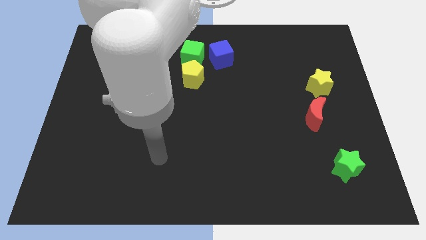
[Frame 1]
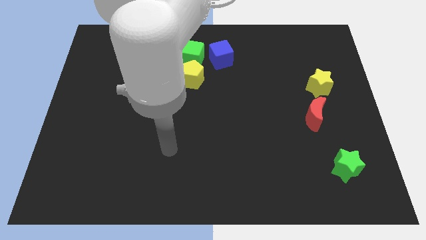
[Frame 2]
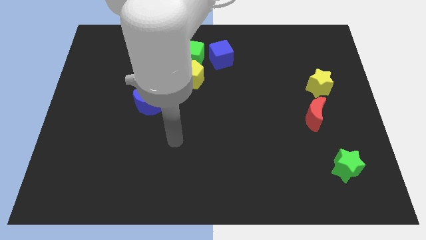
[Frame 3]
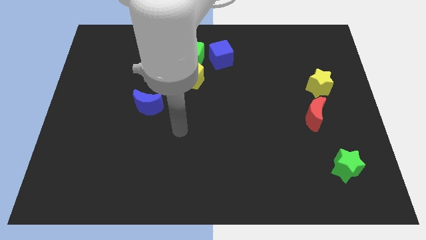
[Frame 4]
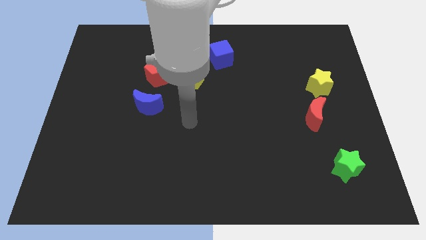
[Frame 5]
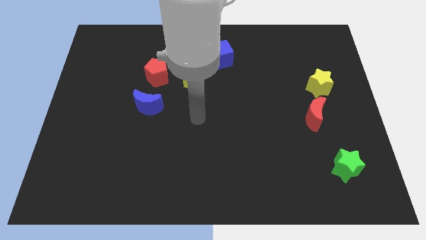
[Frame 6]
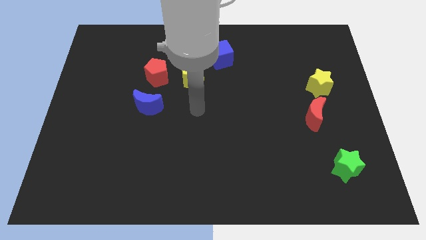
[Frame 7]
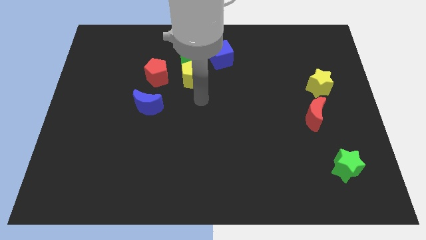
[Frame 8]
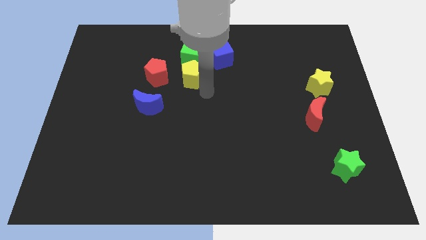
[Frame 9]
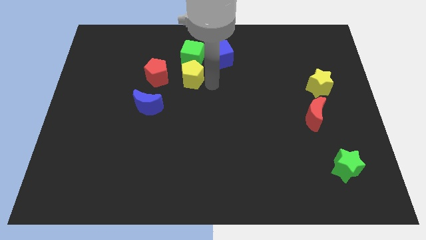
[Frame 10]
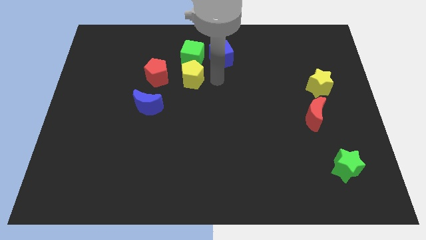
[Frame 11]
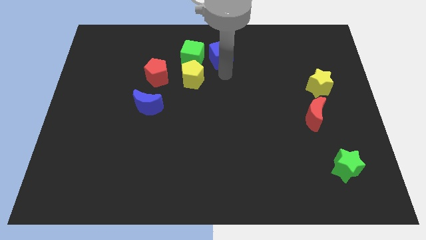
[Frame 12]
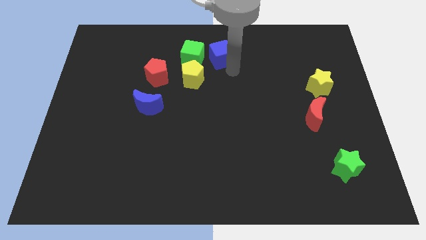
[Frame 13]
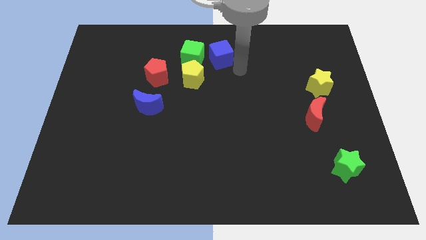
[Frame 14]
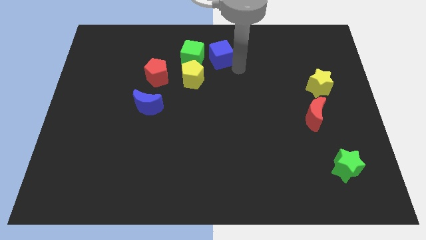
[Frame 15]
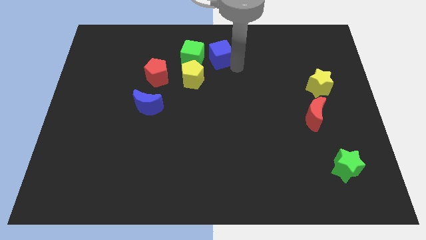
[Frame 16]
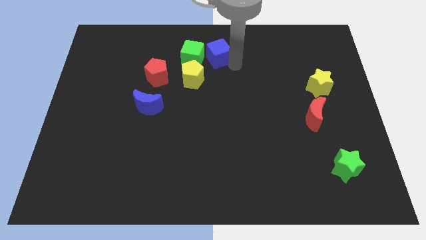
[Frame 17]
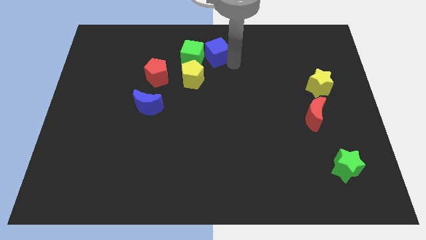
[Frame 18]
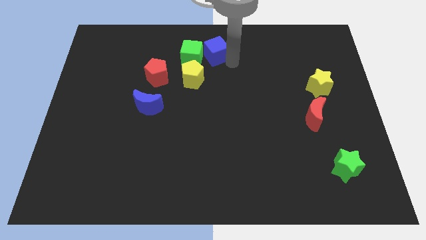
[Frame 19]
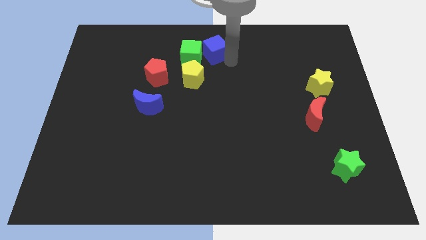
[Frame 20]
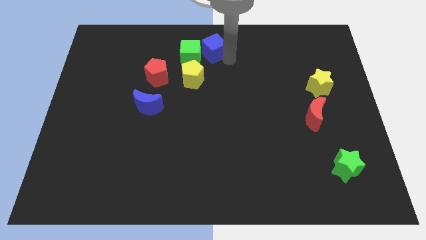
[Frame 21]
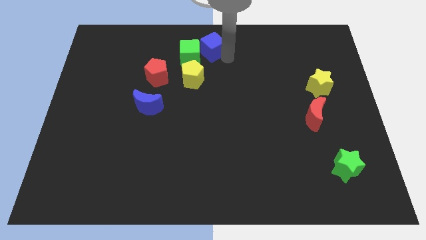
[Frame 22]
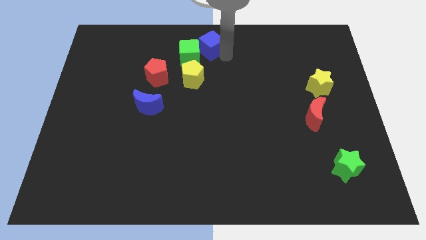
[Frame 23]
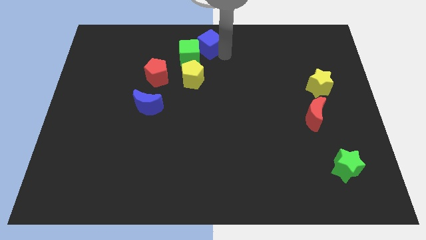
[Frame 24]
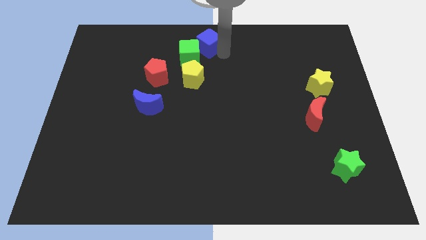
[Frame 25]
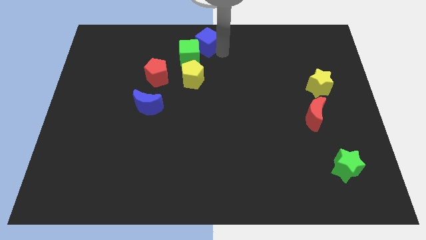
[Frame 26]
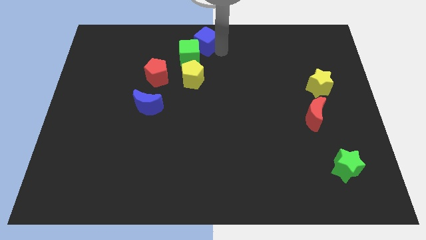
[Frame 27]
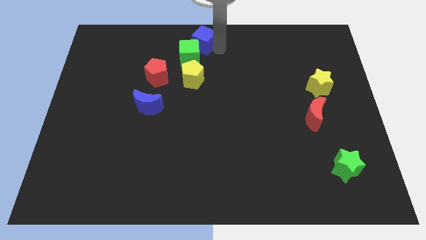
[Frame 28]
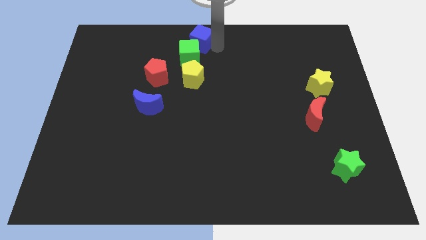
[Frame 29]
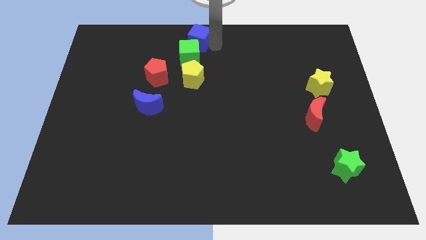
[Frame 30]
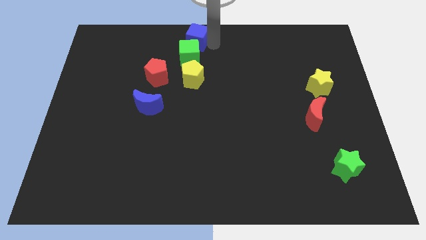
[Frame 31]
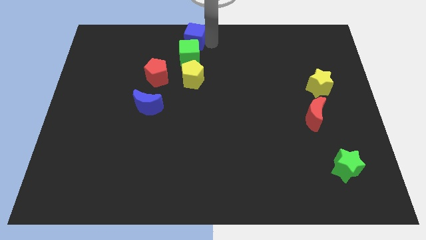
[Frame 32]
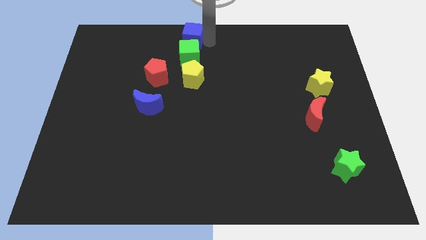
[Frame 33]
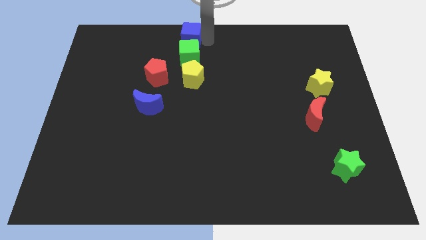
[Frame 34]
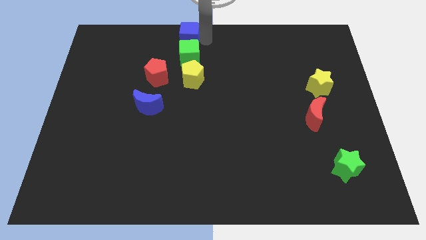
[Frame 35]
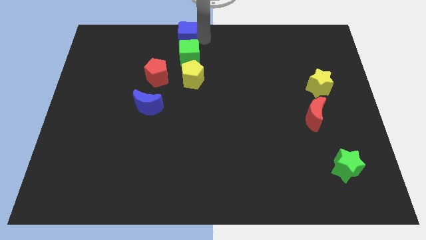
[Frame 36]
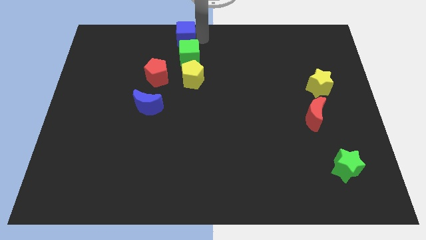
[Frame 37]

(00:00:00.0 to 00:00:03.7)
slightly slide the blue cube to the left

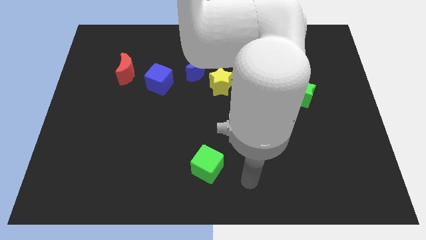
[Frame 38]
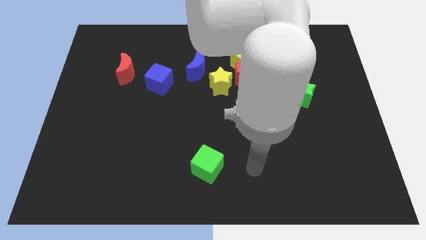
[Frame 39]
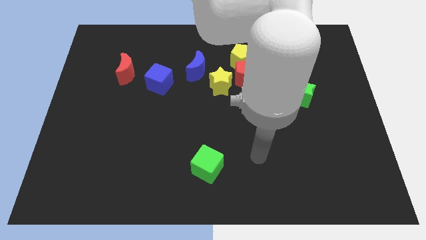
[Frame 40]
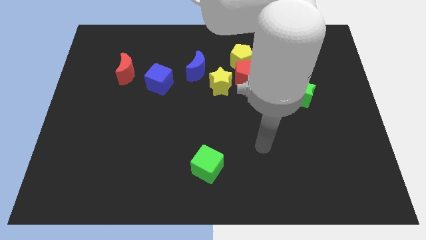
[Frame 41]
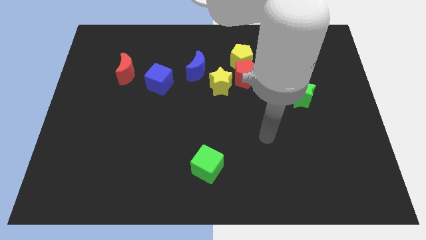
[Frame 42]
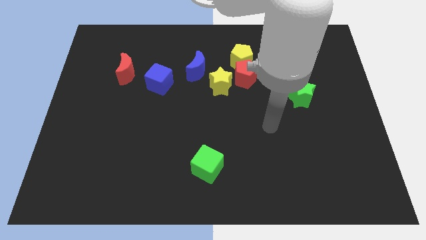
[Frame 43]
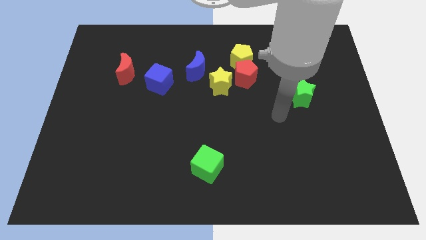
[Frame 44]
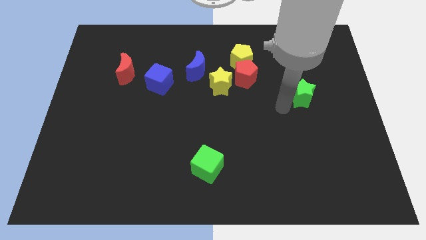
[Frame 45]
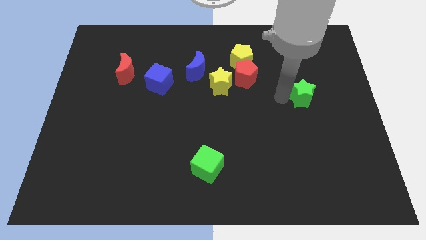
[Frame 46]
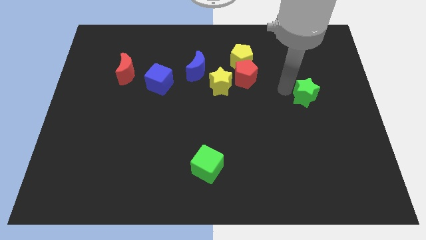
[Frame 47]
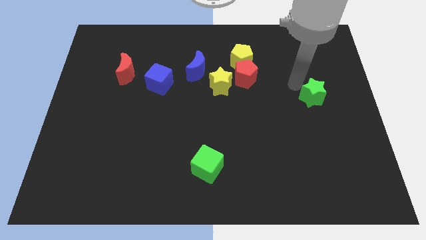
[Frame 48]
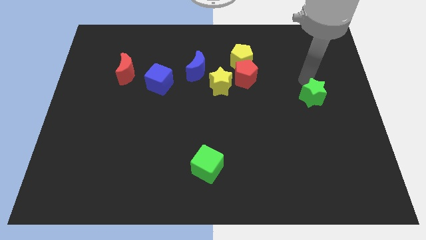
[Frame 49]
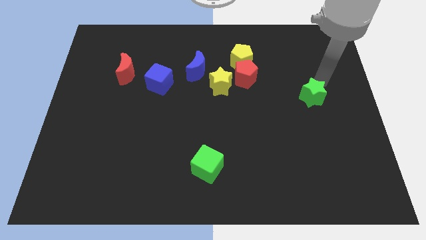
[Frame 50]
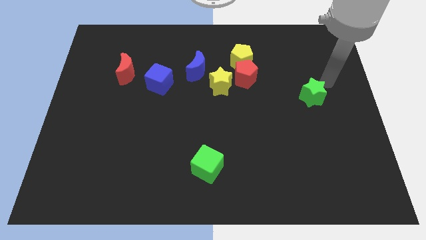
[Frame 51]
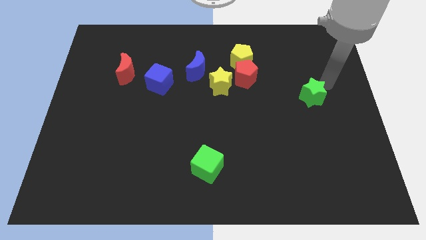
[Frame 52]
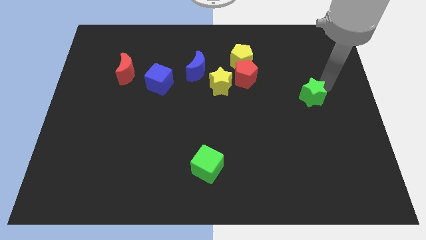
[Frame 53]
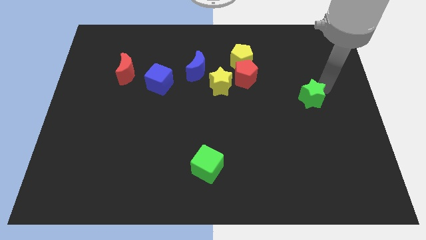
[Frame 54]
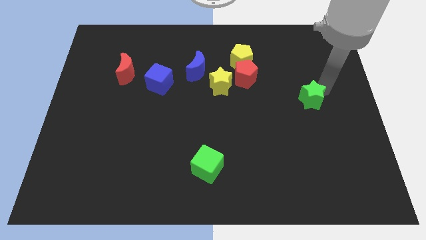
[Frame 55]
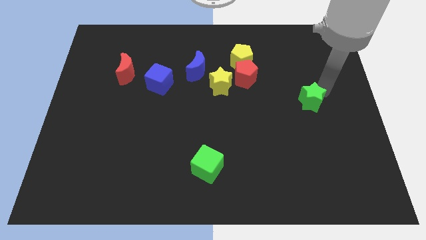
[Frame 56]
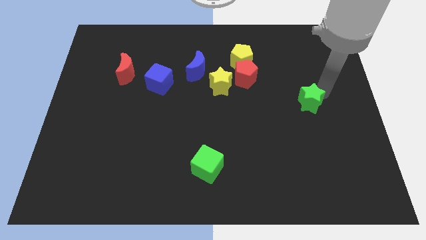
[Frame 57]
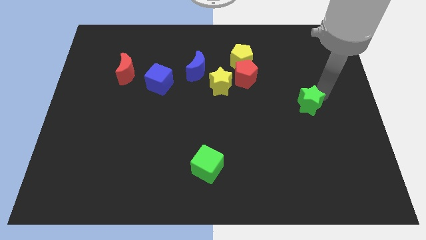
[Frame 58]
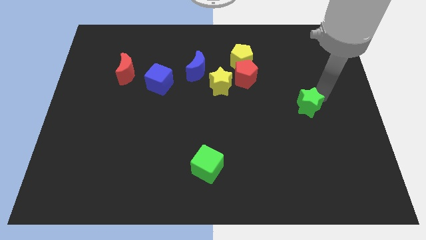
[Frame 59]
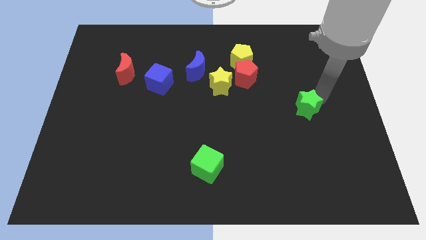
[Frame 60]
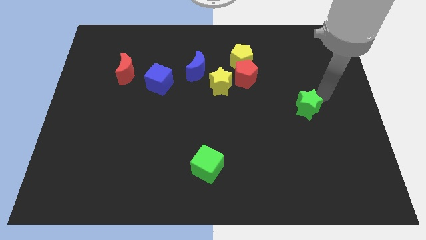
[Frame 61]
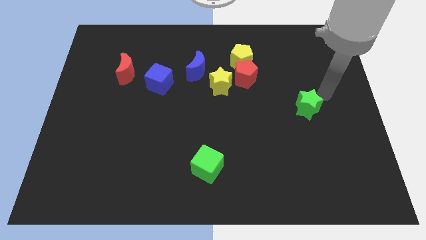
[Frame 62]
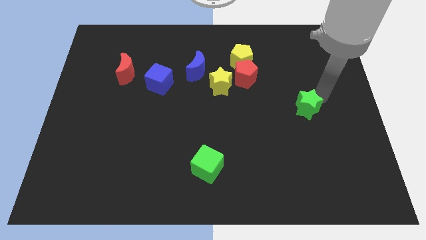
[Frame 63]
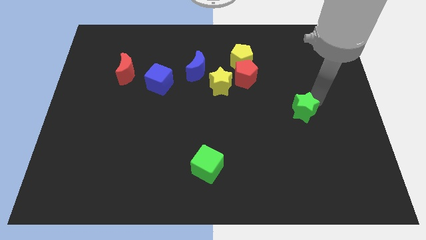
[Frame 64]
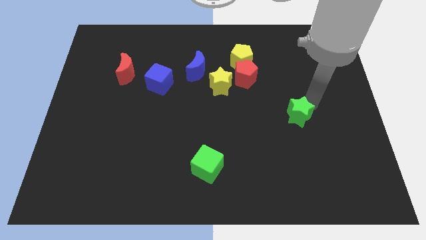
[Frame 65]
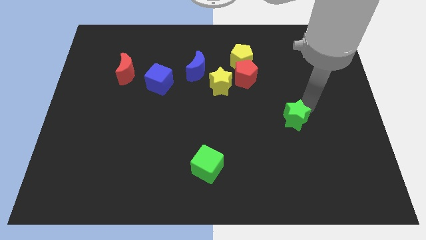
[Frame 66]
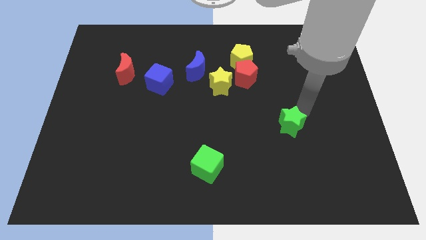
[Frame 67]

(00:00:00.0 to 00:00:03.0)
slightly push the green star diagonally down and to the left

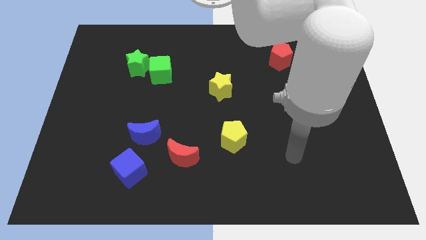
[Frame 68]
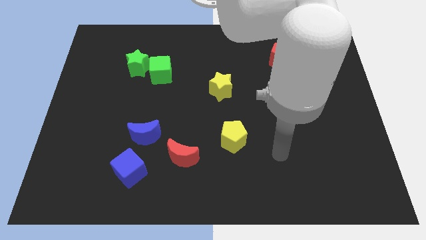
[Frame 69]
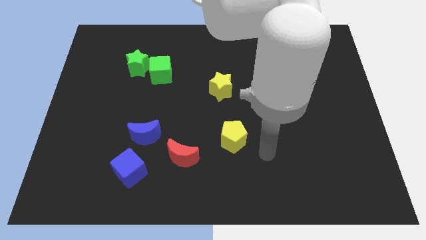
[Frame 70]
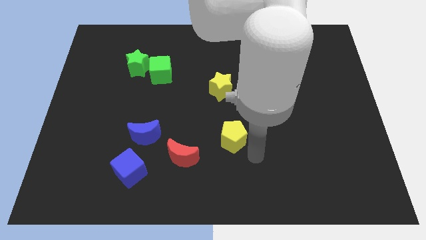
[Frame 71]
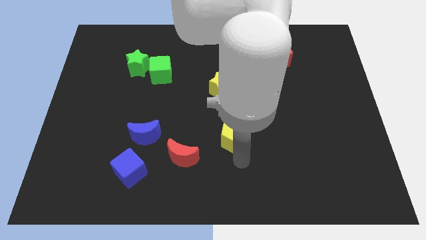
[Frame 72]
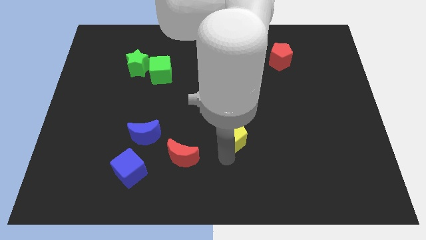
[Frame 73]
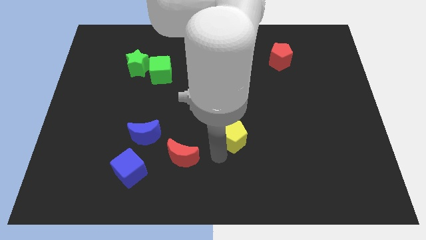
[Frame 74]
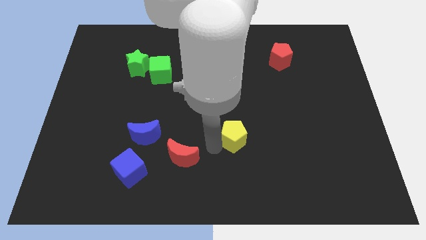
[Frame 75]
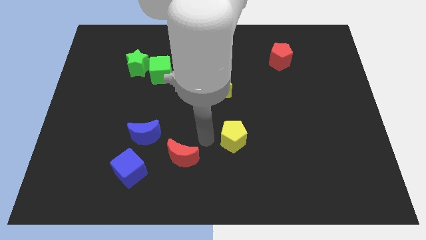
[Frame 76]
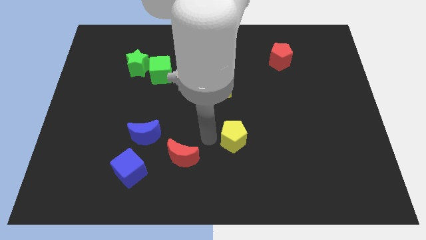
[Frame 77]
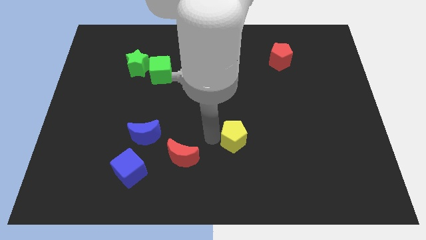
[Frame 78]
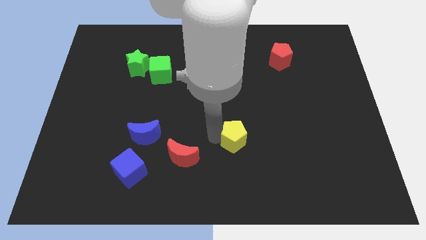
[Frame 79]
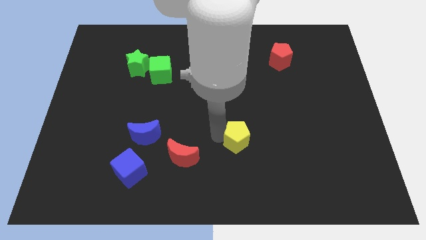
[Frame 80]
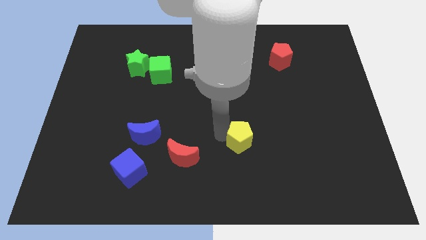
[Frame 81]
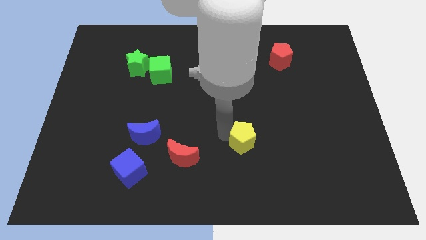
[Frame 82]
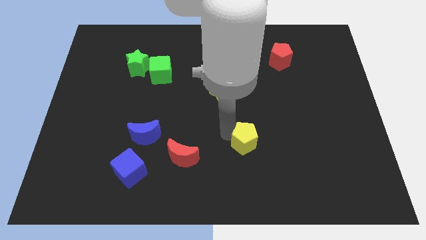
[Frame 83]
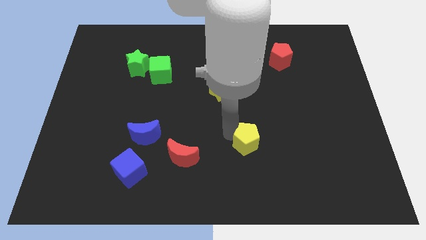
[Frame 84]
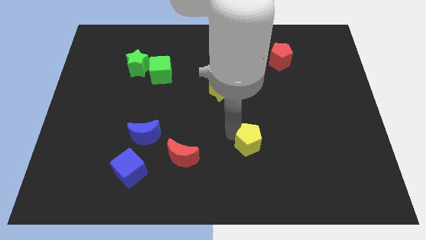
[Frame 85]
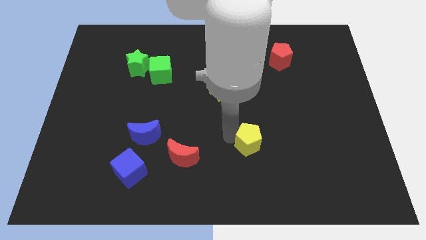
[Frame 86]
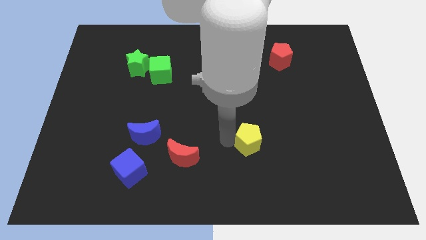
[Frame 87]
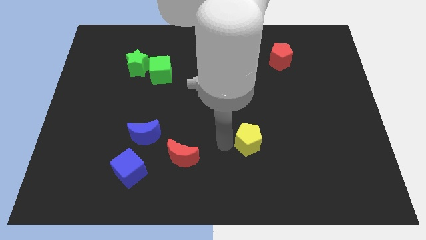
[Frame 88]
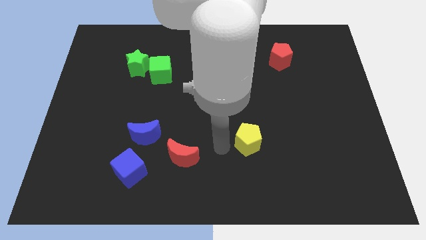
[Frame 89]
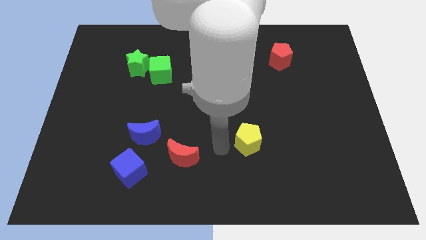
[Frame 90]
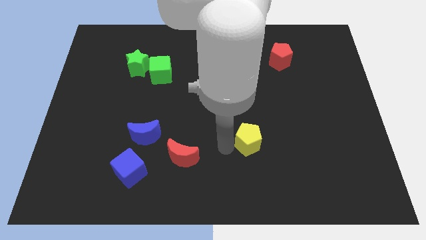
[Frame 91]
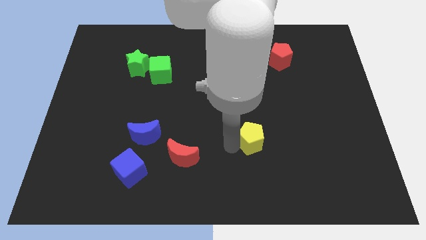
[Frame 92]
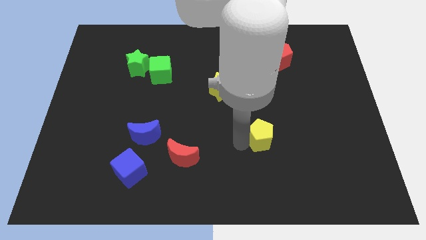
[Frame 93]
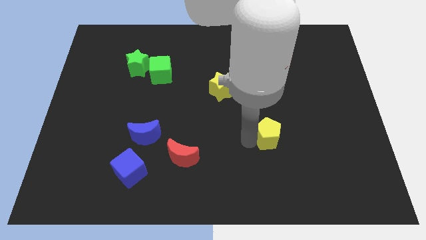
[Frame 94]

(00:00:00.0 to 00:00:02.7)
move the yellow pentagon to the right a little
